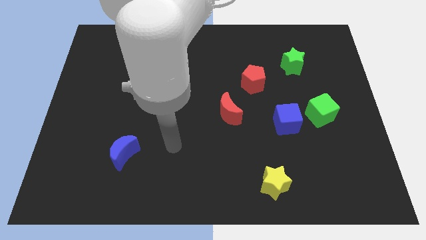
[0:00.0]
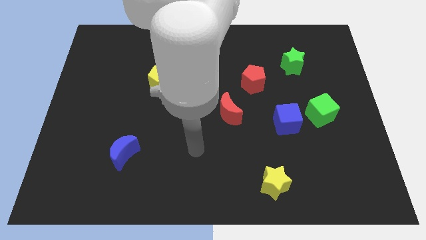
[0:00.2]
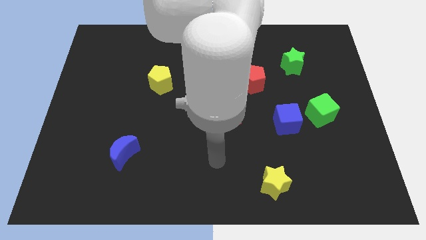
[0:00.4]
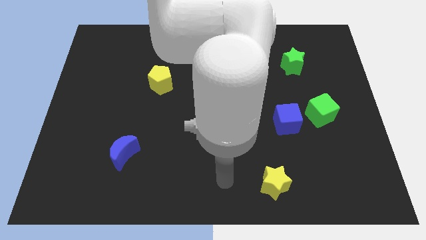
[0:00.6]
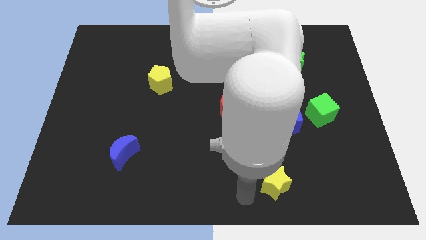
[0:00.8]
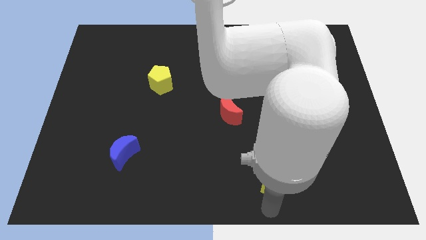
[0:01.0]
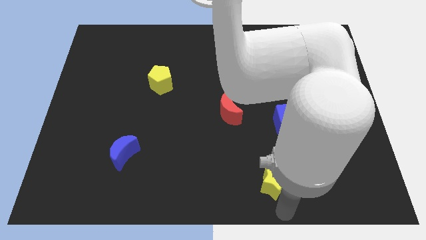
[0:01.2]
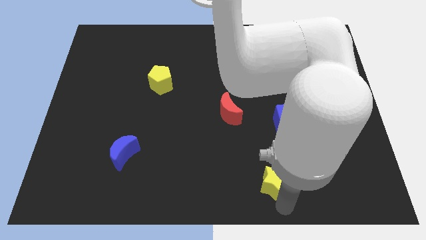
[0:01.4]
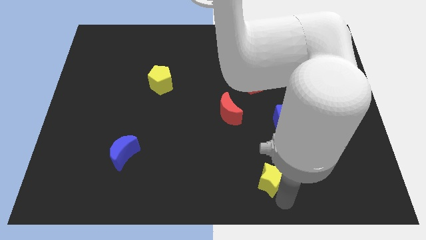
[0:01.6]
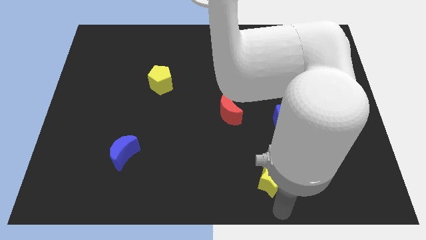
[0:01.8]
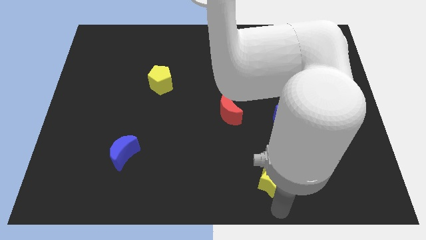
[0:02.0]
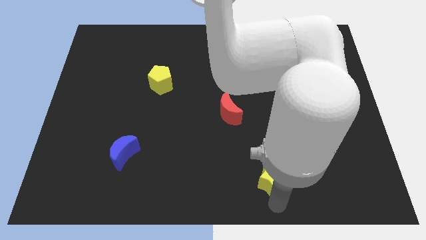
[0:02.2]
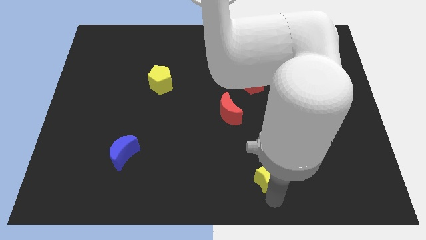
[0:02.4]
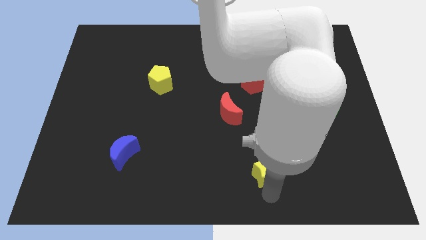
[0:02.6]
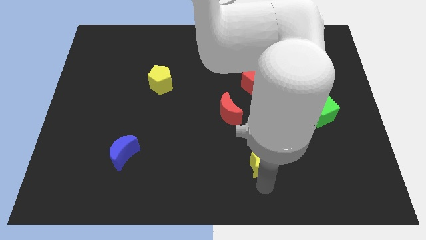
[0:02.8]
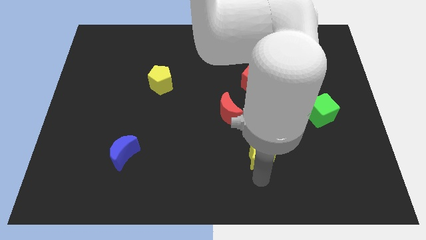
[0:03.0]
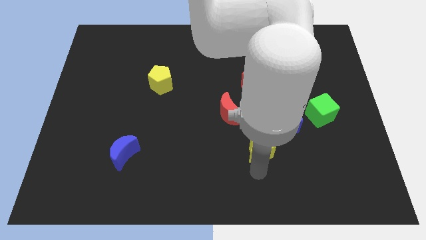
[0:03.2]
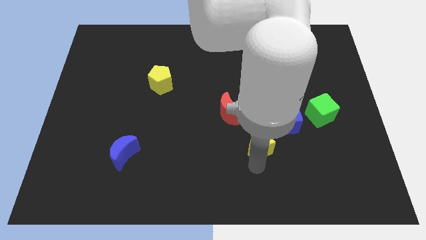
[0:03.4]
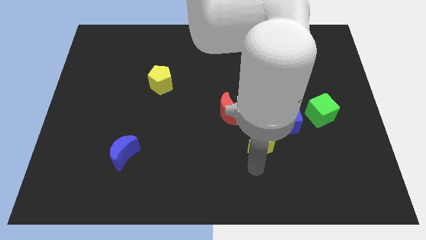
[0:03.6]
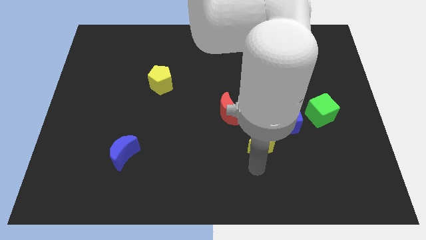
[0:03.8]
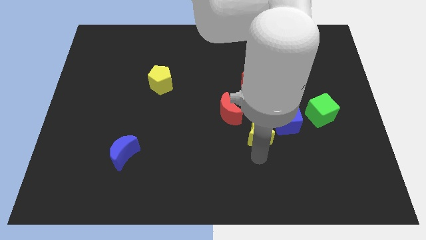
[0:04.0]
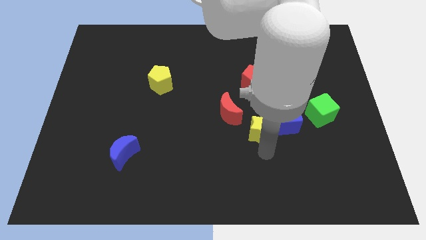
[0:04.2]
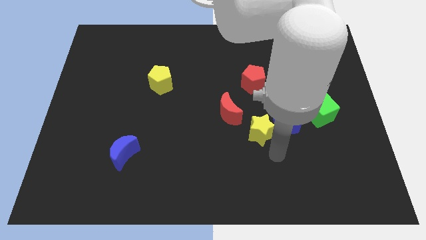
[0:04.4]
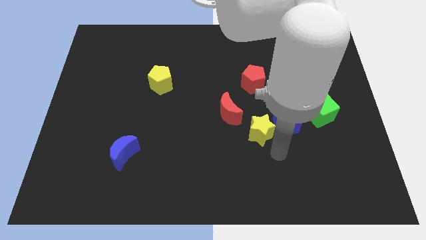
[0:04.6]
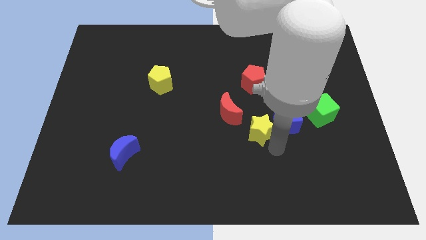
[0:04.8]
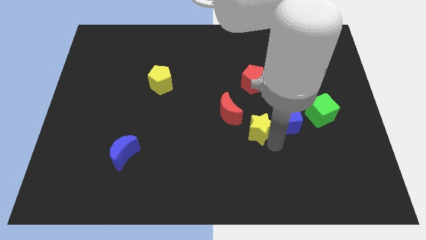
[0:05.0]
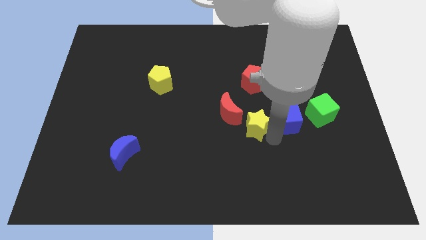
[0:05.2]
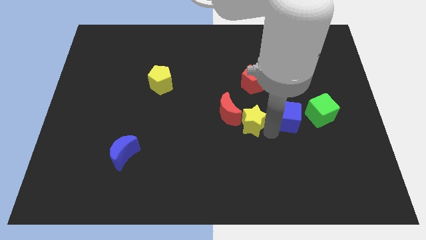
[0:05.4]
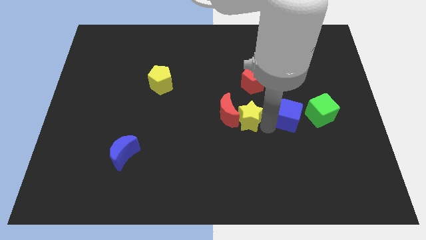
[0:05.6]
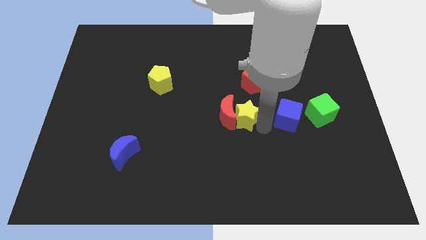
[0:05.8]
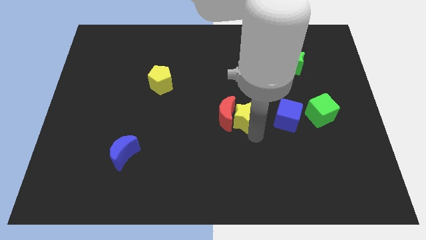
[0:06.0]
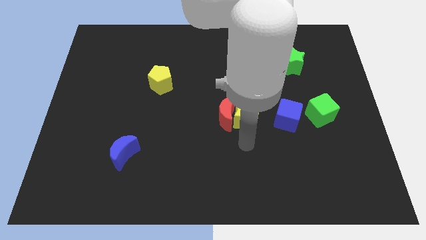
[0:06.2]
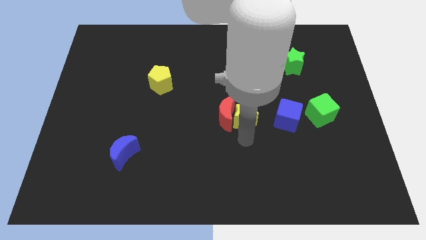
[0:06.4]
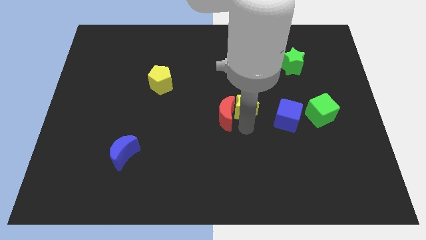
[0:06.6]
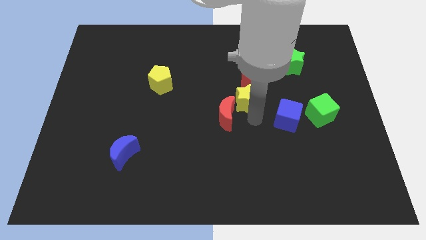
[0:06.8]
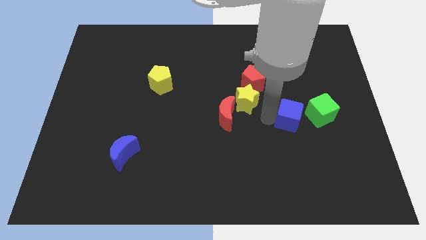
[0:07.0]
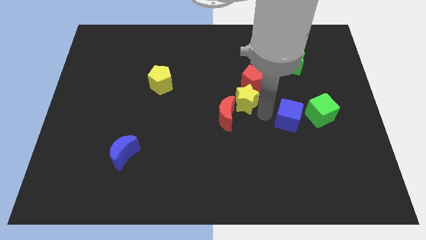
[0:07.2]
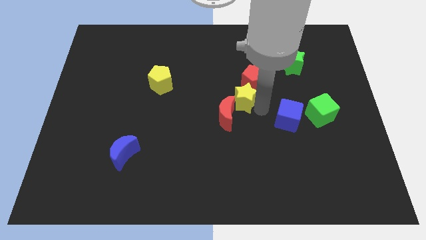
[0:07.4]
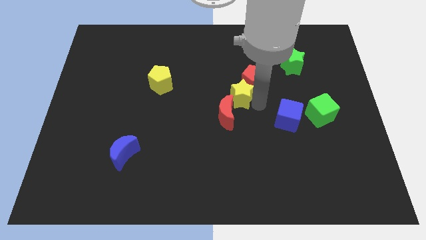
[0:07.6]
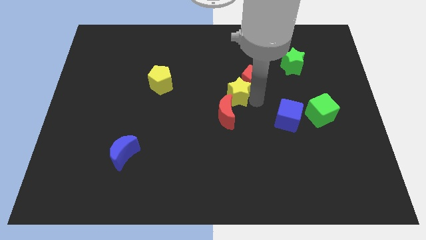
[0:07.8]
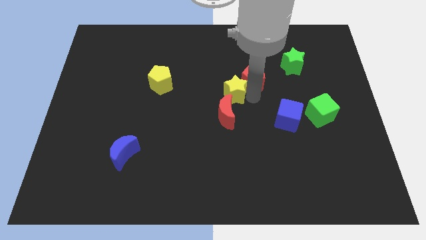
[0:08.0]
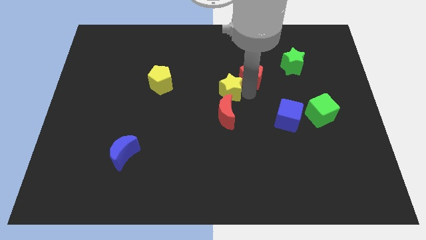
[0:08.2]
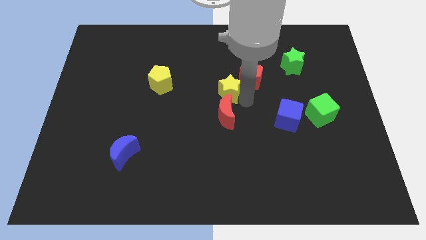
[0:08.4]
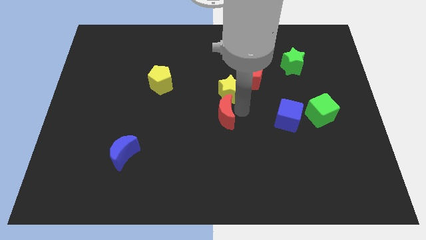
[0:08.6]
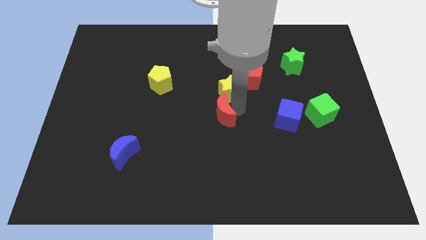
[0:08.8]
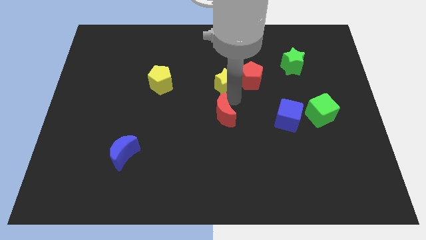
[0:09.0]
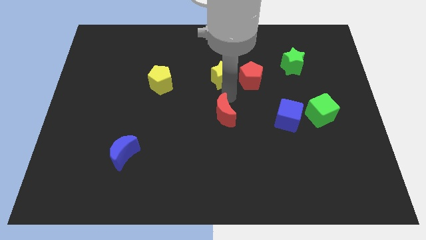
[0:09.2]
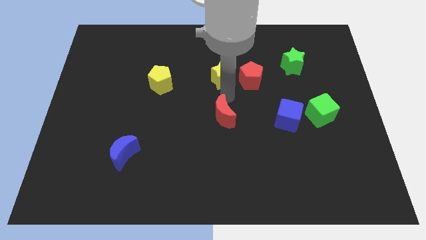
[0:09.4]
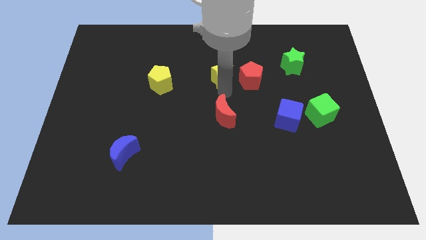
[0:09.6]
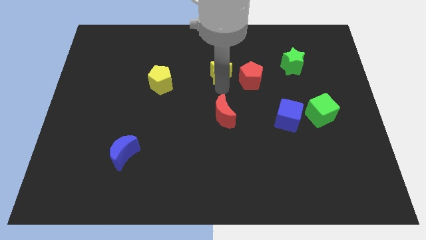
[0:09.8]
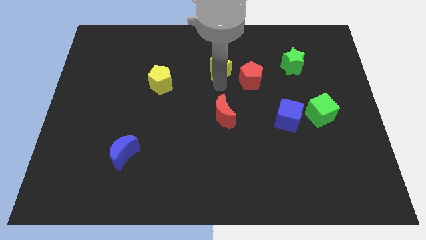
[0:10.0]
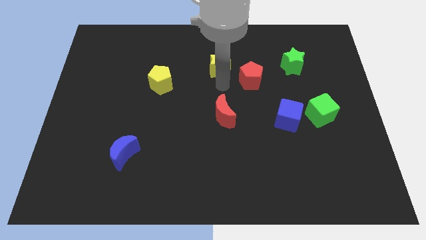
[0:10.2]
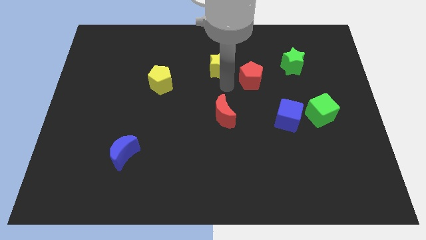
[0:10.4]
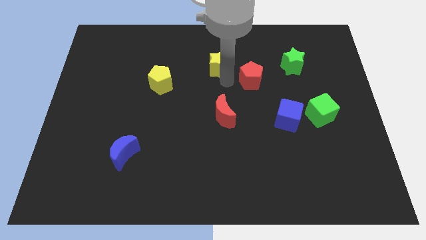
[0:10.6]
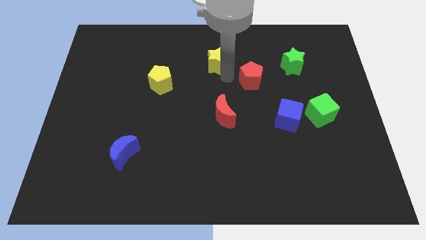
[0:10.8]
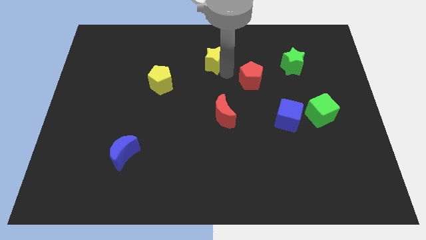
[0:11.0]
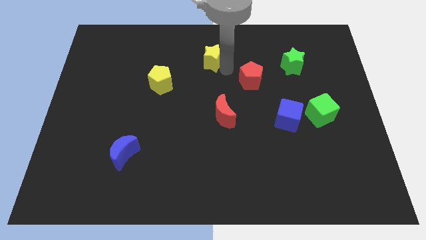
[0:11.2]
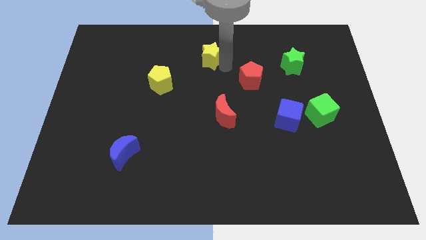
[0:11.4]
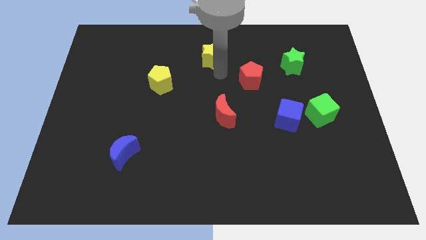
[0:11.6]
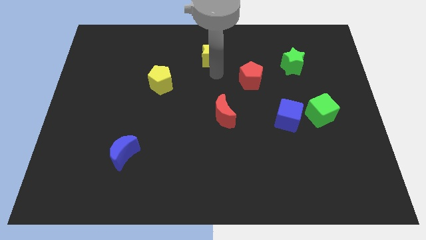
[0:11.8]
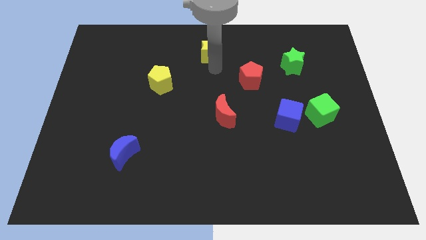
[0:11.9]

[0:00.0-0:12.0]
push the yellow star to the towards your base

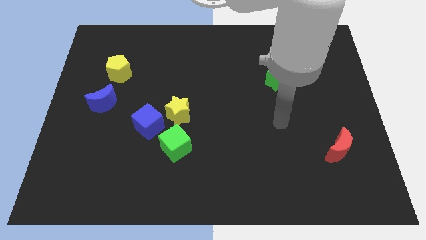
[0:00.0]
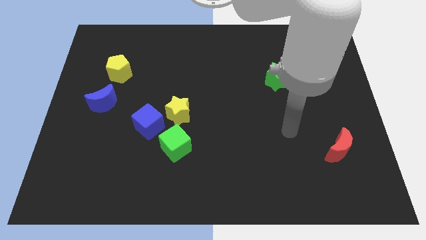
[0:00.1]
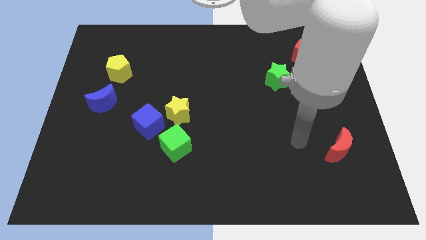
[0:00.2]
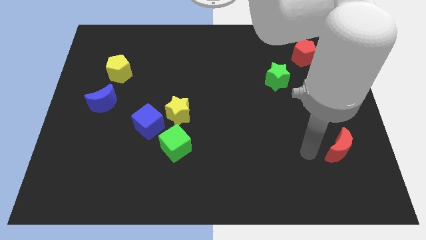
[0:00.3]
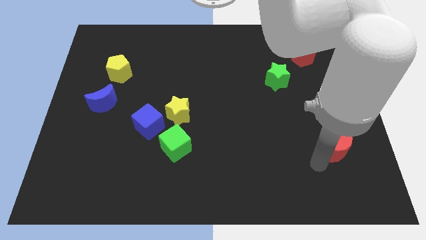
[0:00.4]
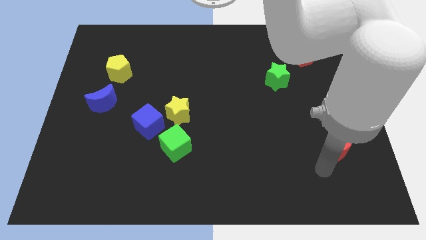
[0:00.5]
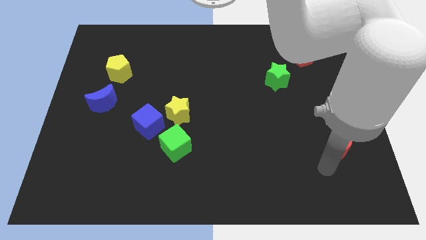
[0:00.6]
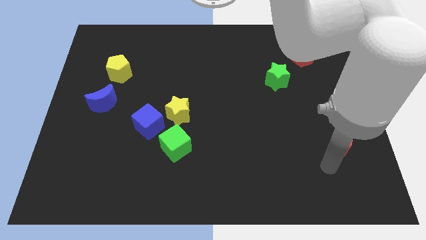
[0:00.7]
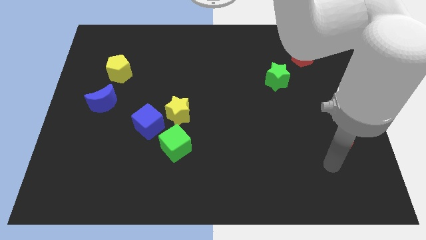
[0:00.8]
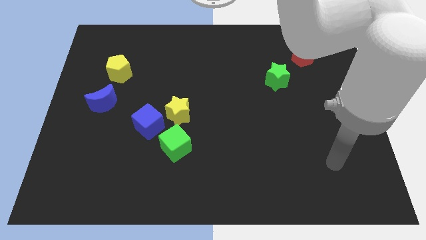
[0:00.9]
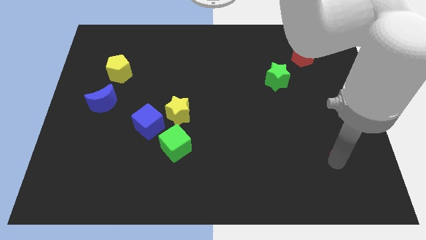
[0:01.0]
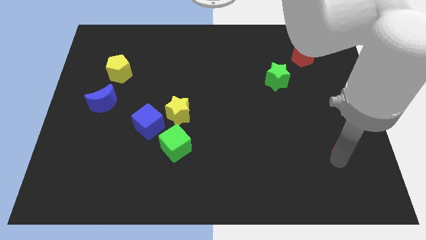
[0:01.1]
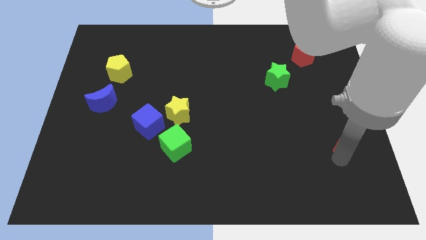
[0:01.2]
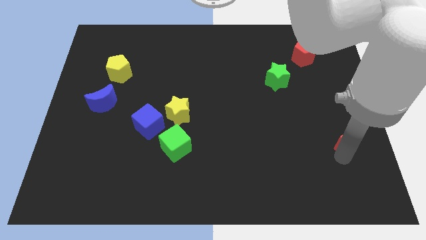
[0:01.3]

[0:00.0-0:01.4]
slide the red moon to the right side of the board
